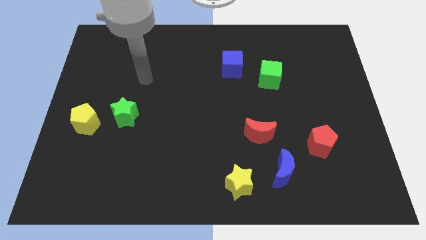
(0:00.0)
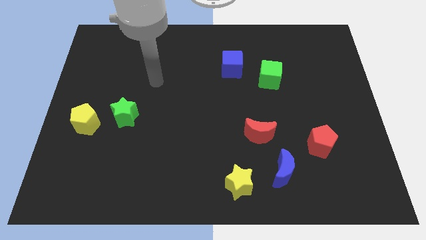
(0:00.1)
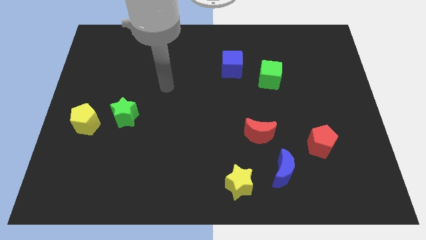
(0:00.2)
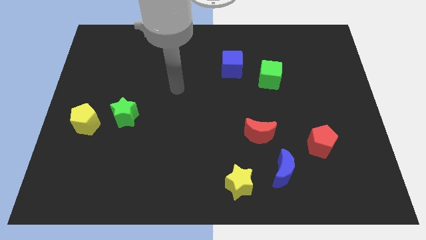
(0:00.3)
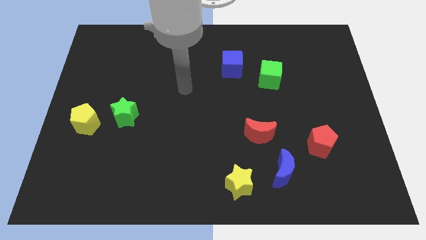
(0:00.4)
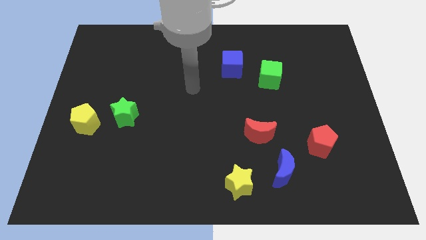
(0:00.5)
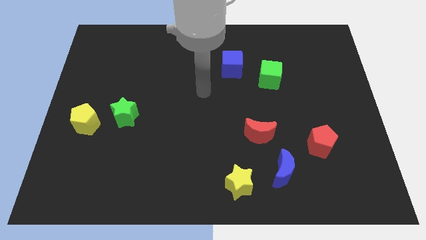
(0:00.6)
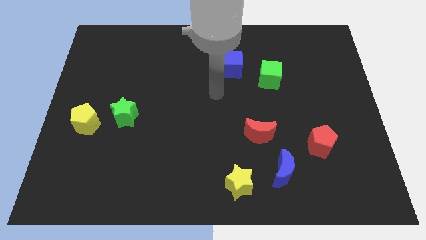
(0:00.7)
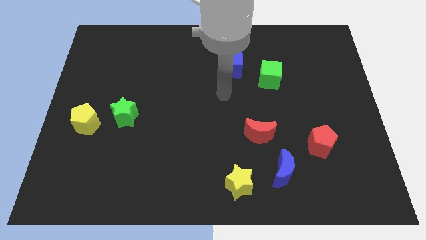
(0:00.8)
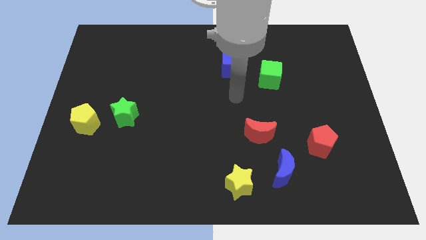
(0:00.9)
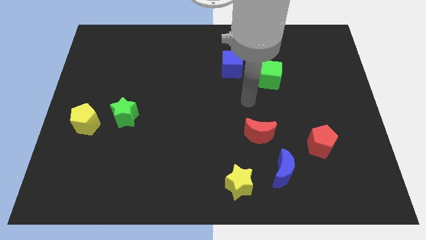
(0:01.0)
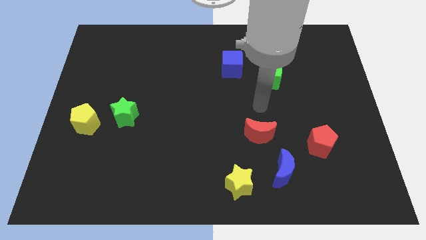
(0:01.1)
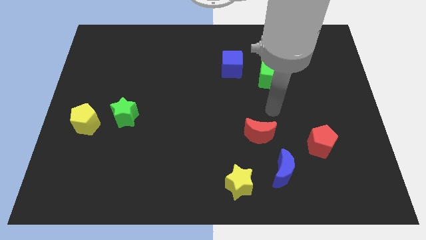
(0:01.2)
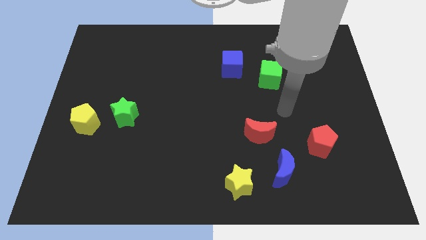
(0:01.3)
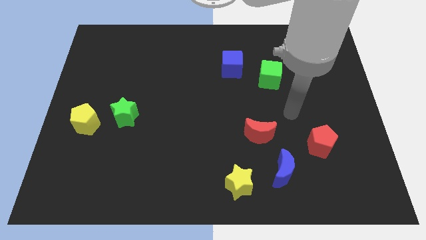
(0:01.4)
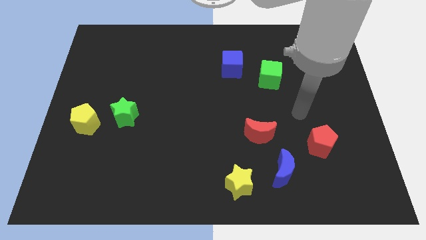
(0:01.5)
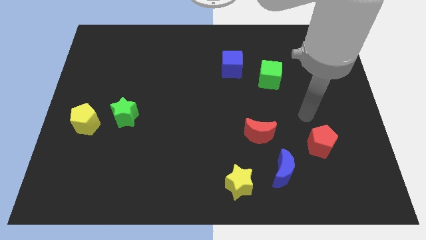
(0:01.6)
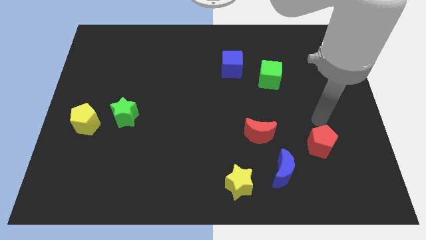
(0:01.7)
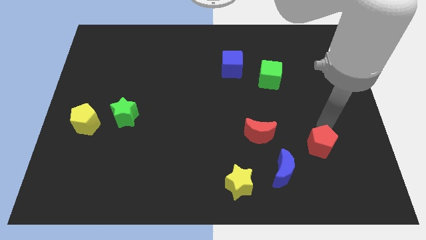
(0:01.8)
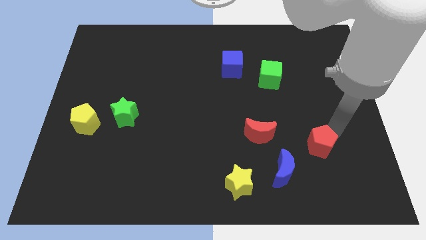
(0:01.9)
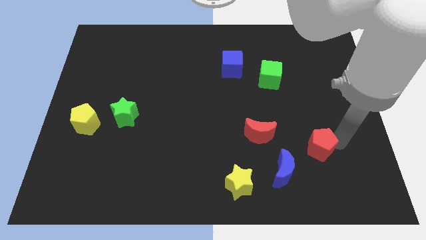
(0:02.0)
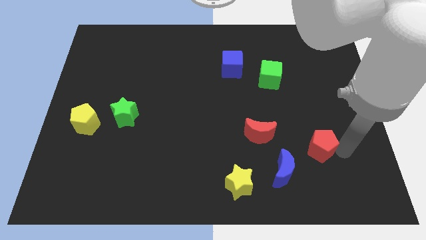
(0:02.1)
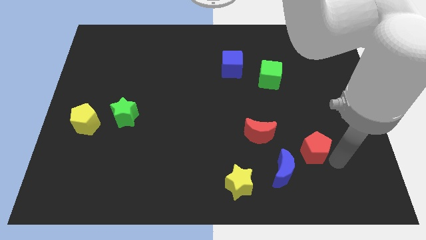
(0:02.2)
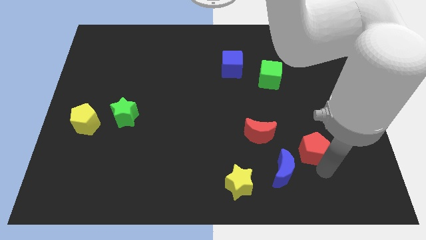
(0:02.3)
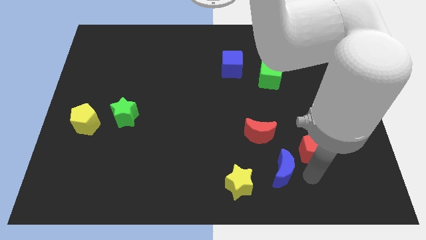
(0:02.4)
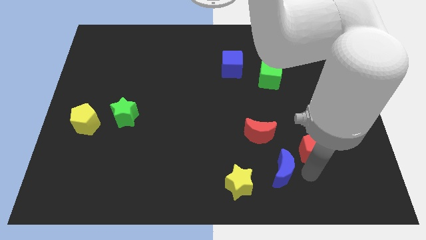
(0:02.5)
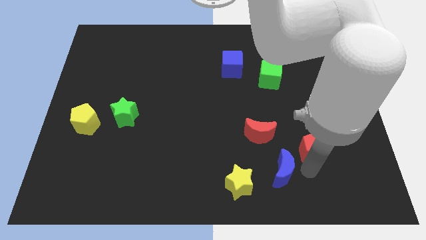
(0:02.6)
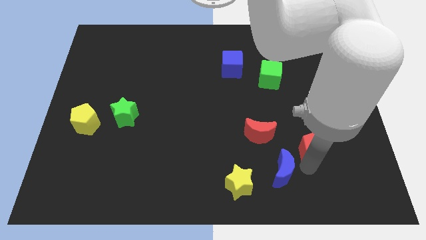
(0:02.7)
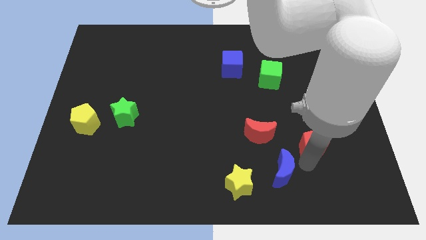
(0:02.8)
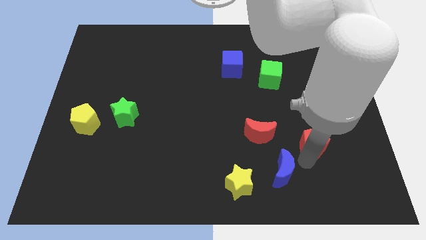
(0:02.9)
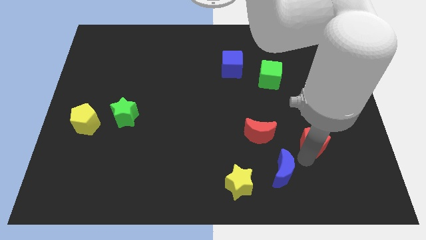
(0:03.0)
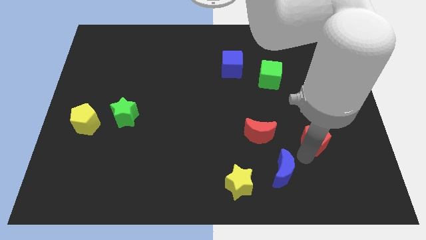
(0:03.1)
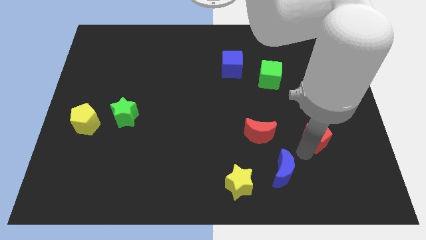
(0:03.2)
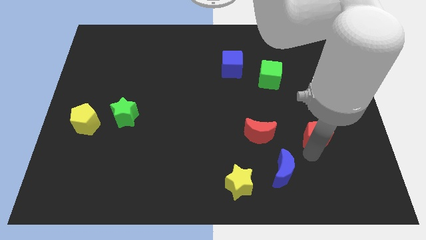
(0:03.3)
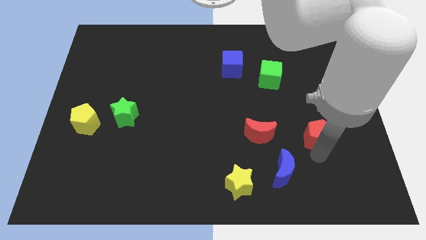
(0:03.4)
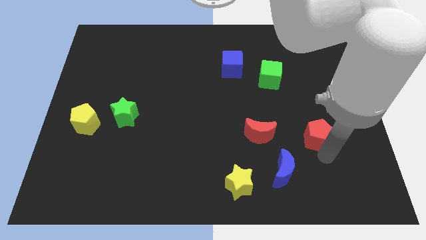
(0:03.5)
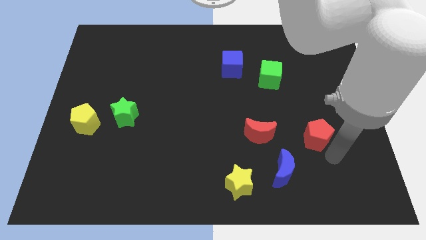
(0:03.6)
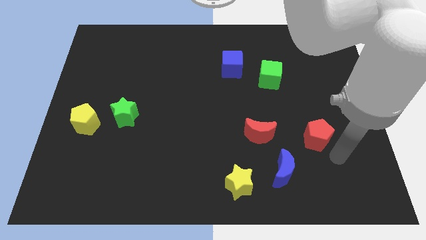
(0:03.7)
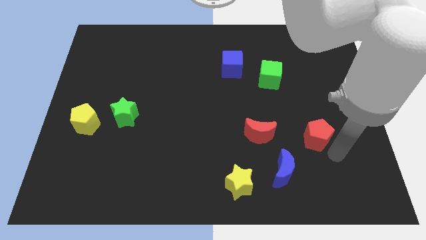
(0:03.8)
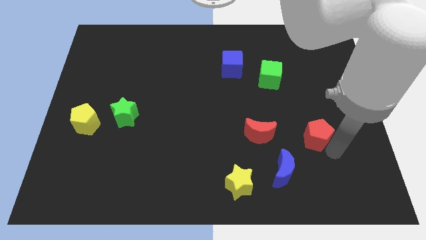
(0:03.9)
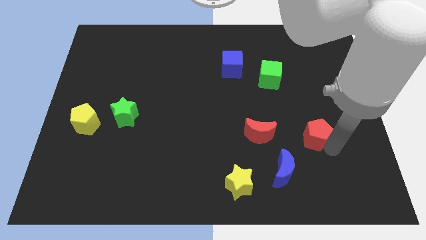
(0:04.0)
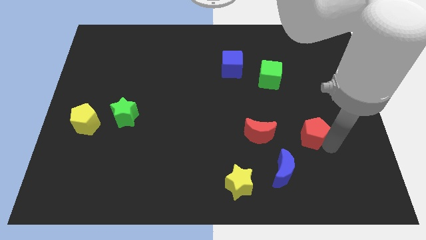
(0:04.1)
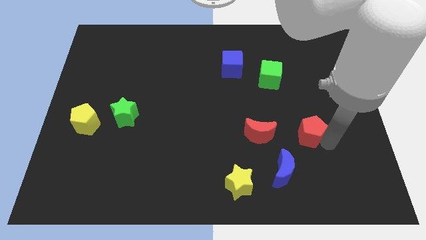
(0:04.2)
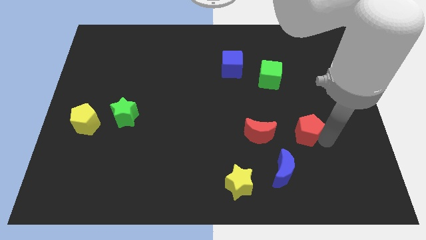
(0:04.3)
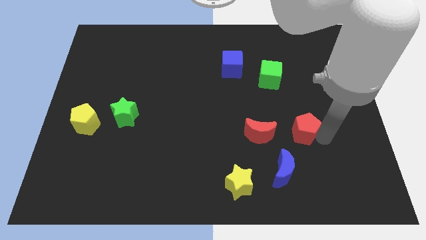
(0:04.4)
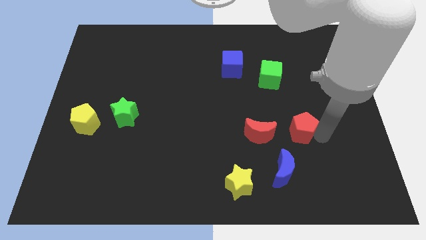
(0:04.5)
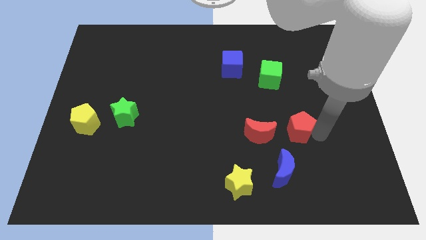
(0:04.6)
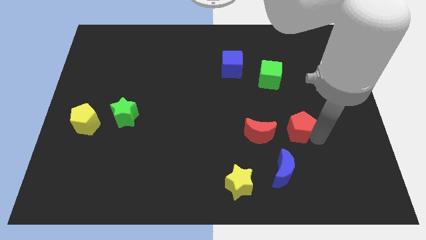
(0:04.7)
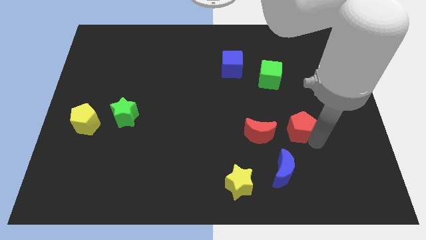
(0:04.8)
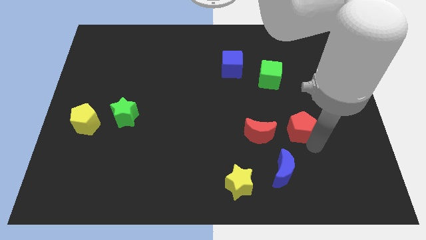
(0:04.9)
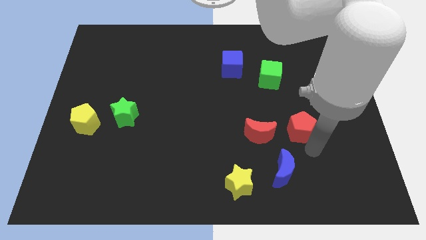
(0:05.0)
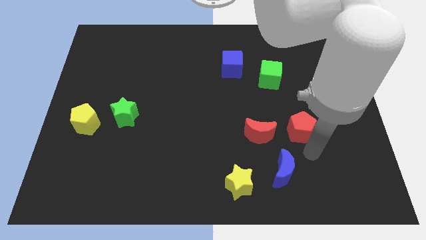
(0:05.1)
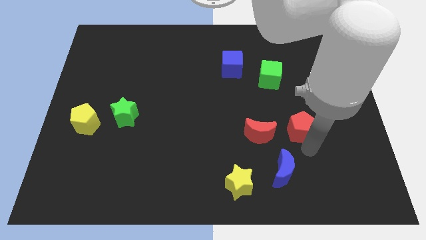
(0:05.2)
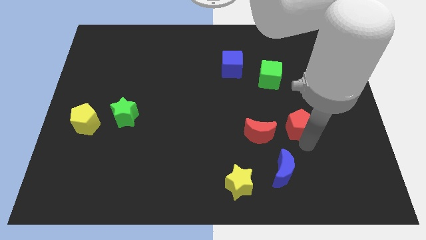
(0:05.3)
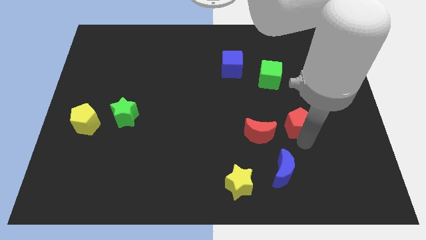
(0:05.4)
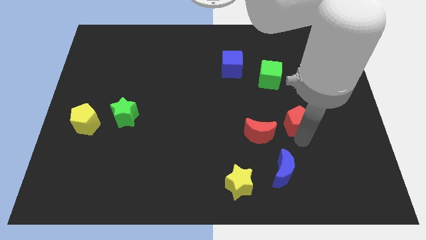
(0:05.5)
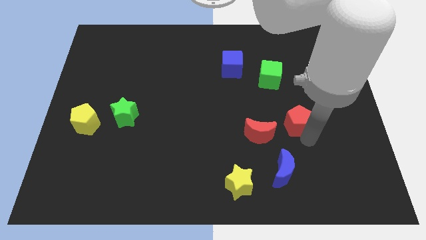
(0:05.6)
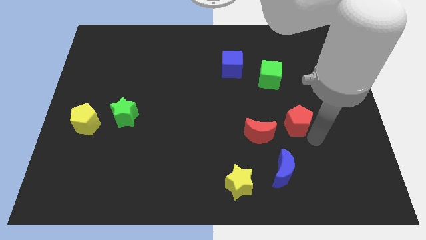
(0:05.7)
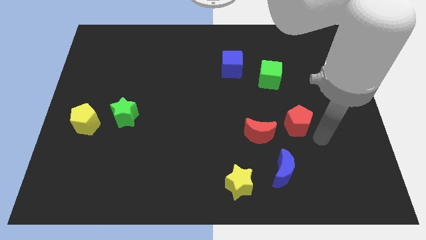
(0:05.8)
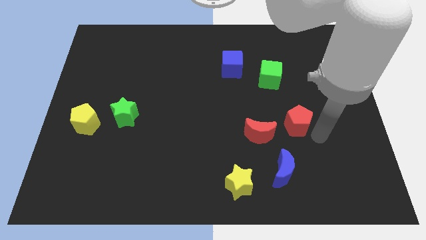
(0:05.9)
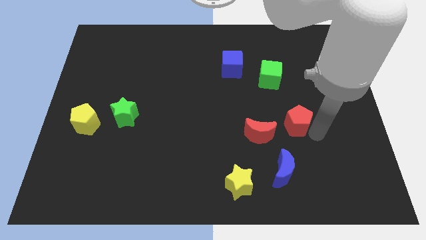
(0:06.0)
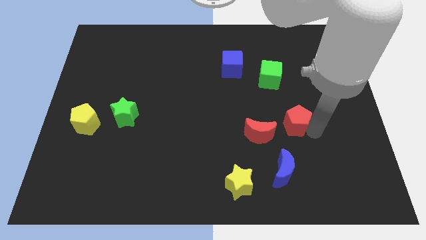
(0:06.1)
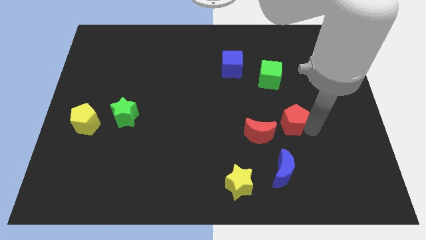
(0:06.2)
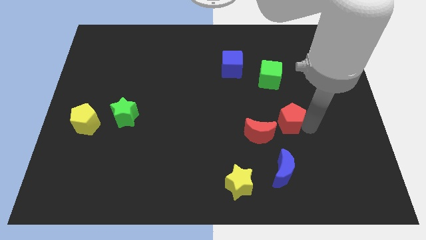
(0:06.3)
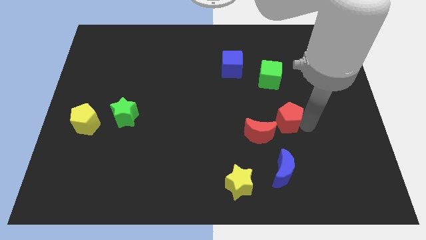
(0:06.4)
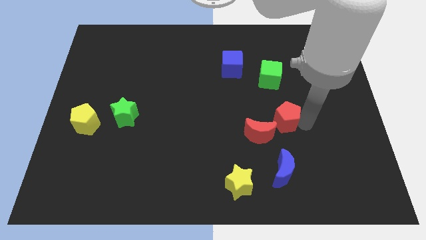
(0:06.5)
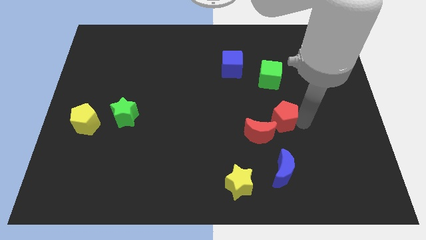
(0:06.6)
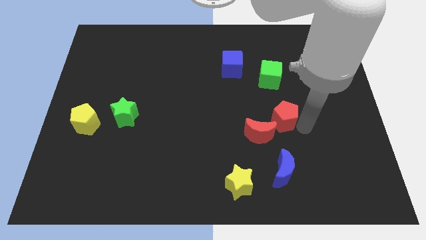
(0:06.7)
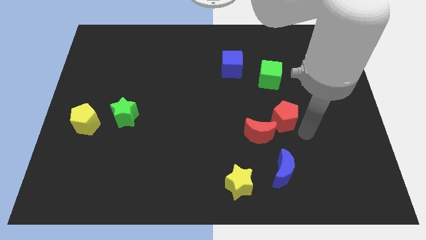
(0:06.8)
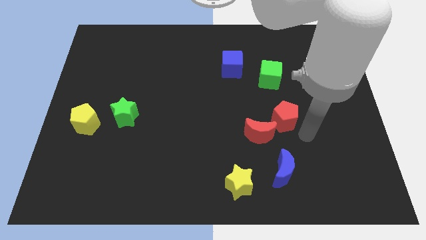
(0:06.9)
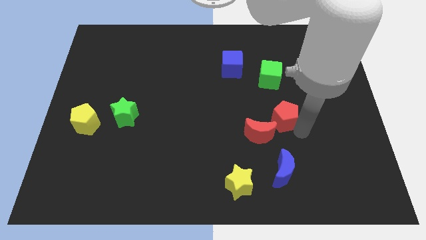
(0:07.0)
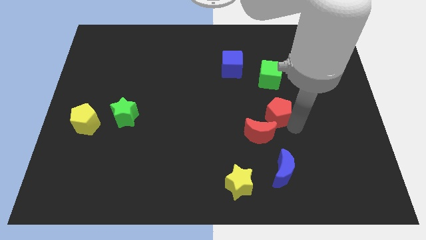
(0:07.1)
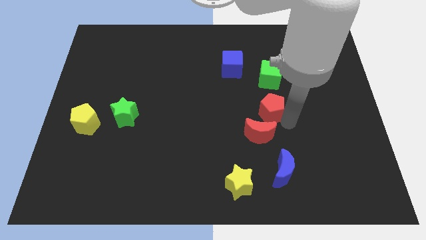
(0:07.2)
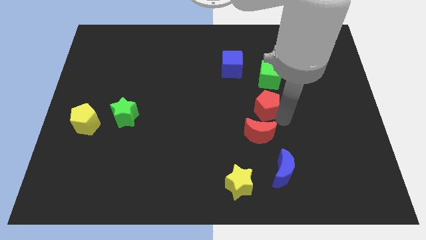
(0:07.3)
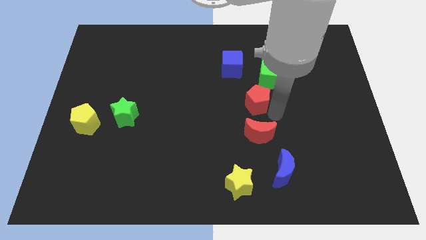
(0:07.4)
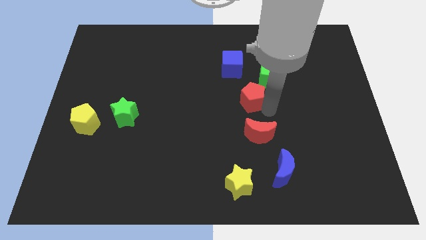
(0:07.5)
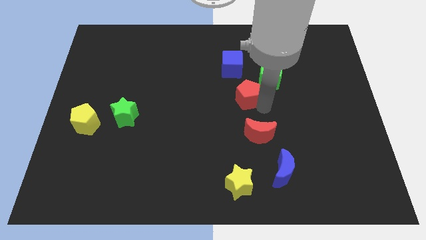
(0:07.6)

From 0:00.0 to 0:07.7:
move the red pentagon up and left
